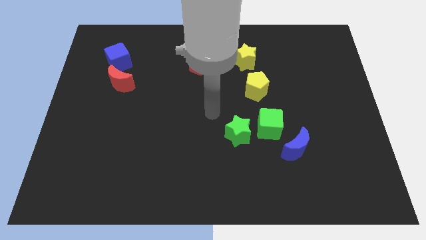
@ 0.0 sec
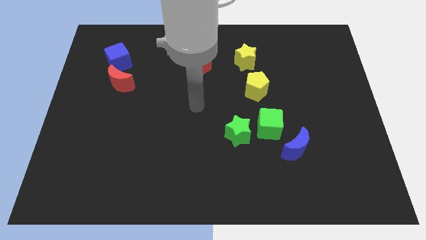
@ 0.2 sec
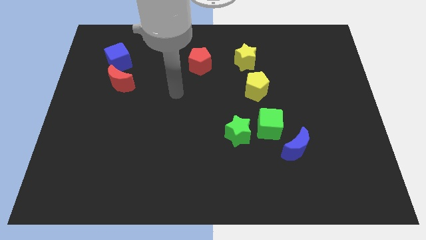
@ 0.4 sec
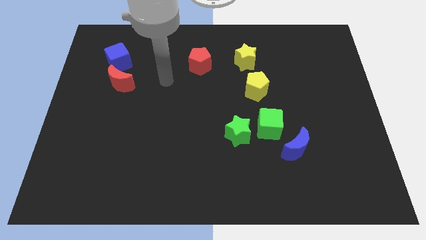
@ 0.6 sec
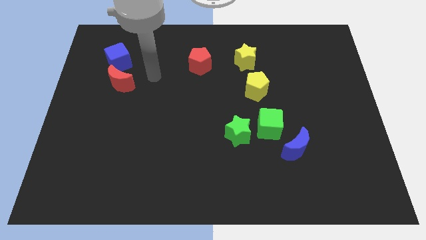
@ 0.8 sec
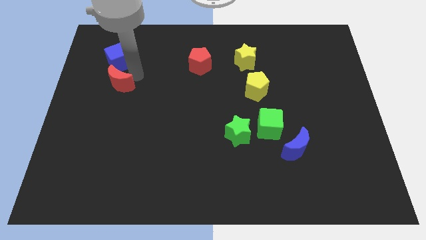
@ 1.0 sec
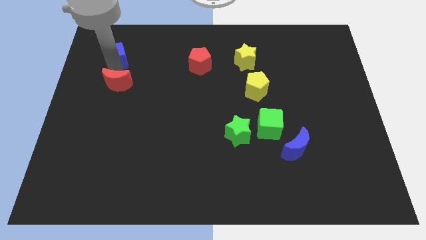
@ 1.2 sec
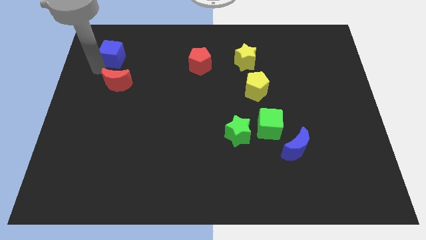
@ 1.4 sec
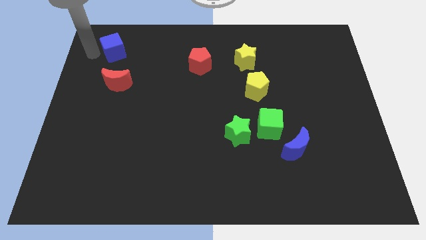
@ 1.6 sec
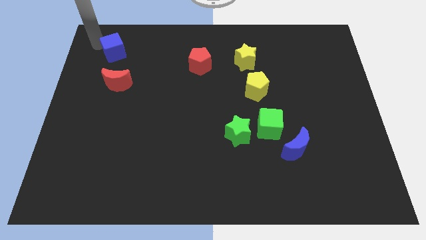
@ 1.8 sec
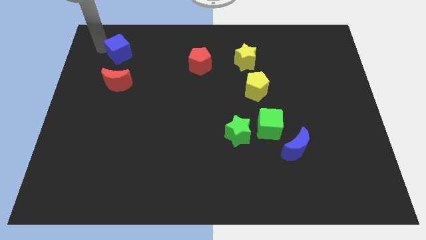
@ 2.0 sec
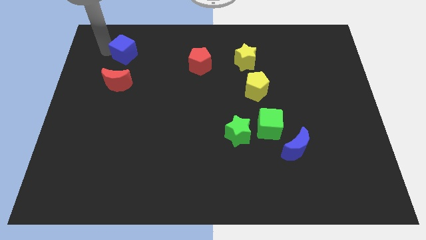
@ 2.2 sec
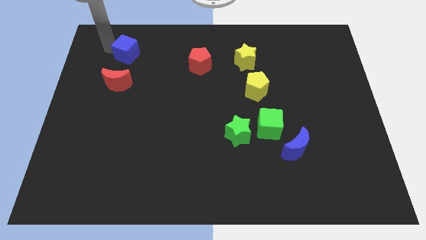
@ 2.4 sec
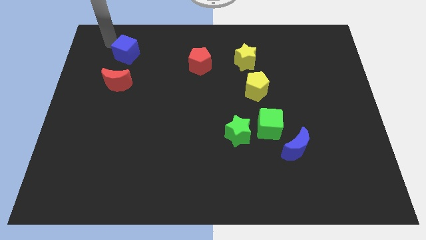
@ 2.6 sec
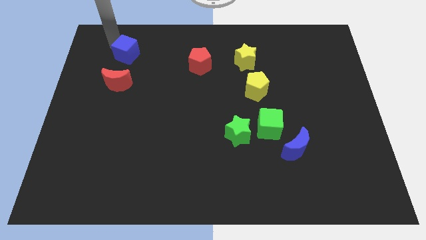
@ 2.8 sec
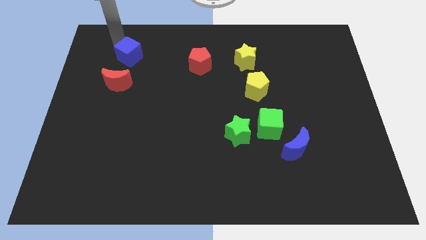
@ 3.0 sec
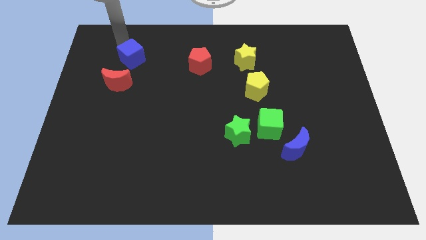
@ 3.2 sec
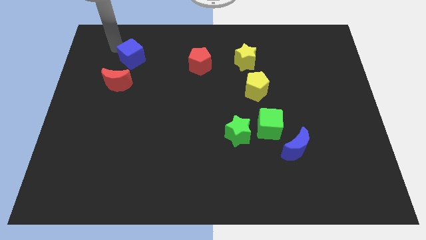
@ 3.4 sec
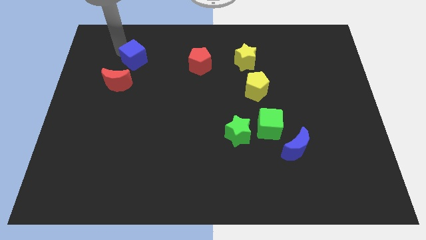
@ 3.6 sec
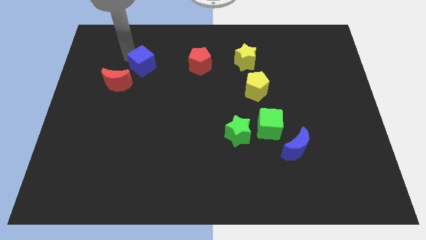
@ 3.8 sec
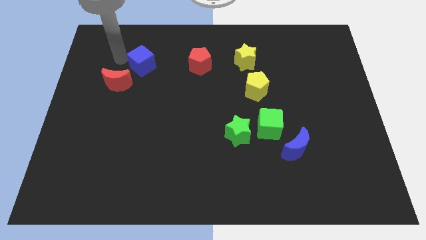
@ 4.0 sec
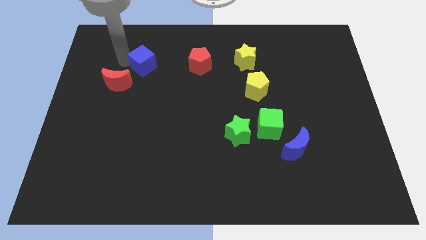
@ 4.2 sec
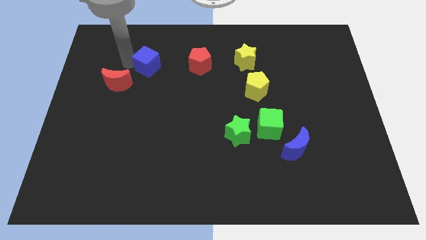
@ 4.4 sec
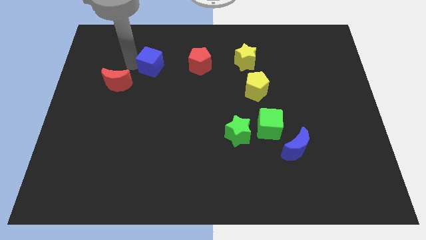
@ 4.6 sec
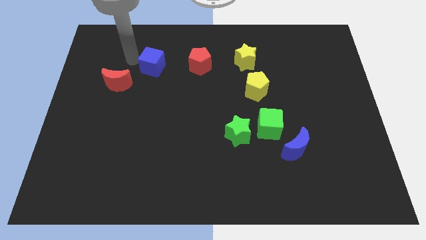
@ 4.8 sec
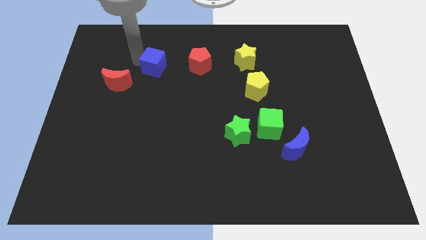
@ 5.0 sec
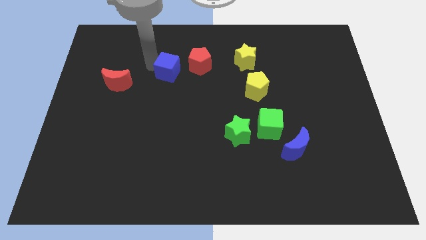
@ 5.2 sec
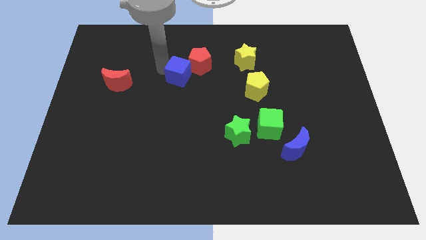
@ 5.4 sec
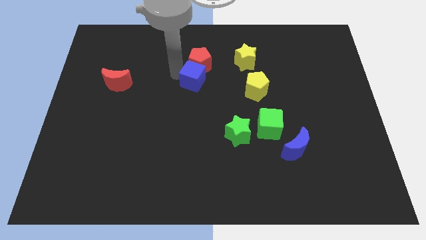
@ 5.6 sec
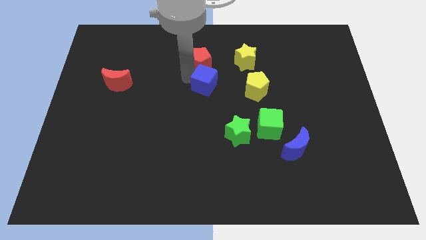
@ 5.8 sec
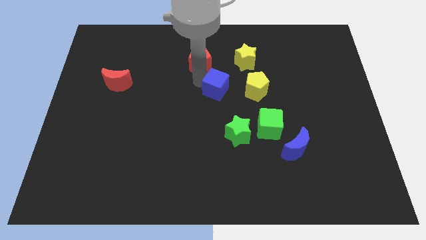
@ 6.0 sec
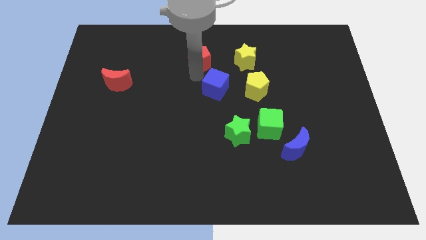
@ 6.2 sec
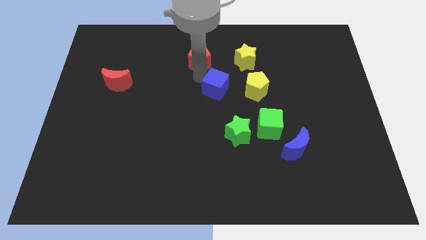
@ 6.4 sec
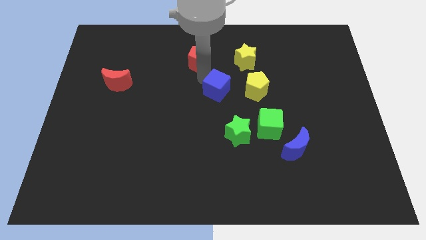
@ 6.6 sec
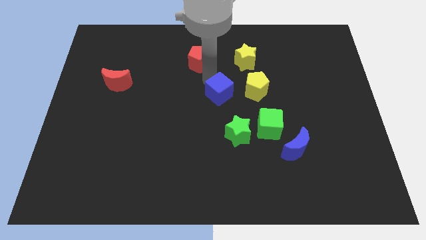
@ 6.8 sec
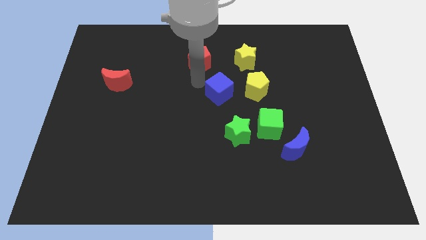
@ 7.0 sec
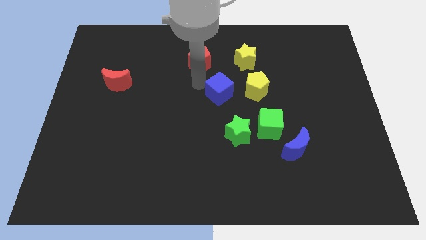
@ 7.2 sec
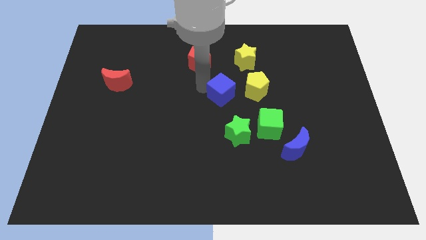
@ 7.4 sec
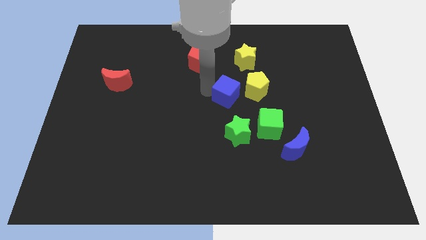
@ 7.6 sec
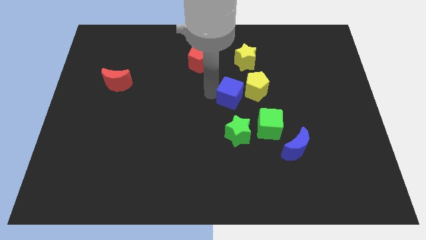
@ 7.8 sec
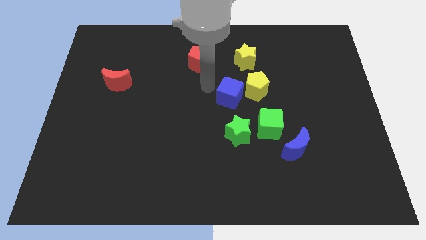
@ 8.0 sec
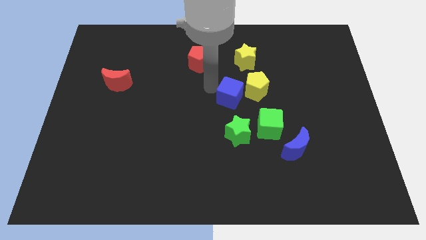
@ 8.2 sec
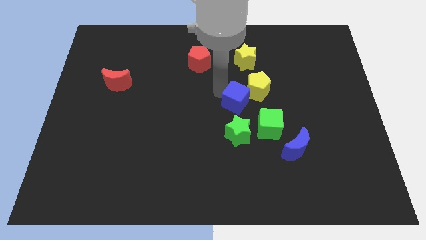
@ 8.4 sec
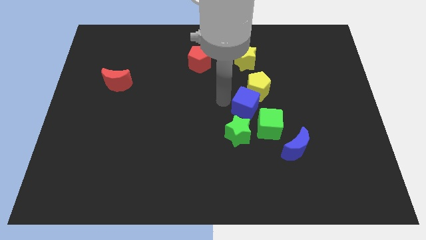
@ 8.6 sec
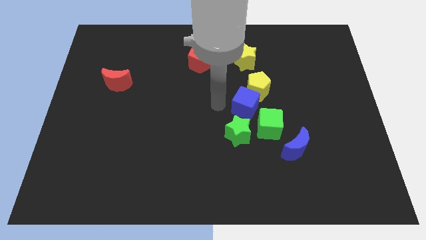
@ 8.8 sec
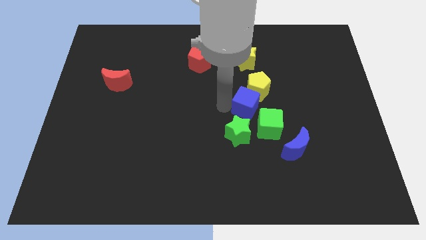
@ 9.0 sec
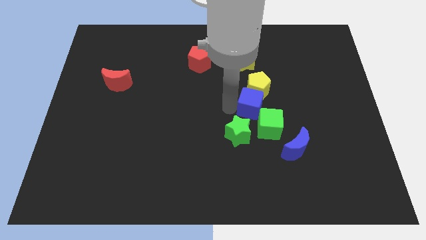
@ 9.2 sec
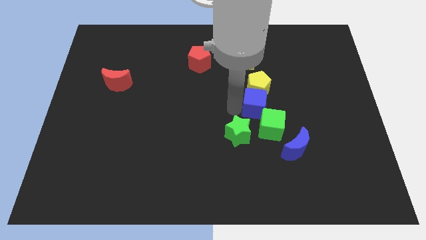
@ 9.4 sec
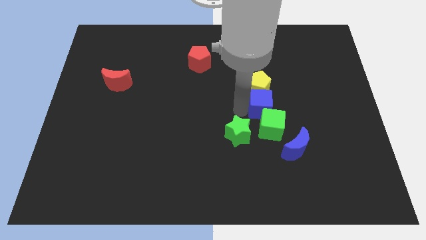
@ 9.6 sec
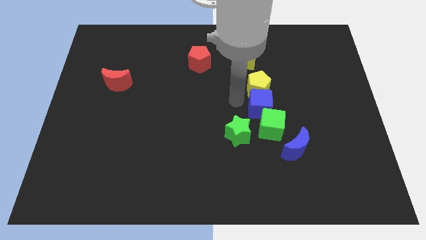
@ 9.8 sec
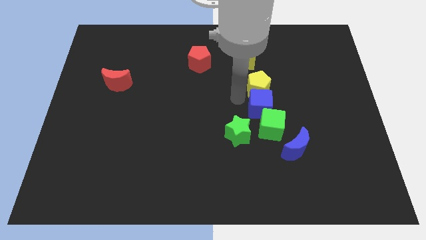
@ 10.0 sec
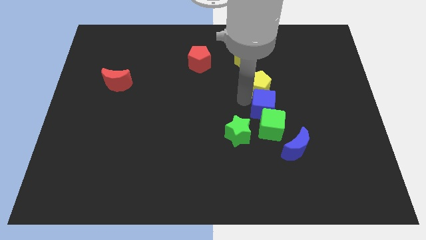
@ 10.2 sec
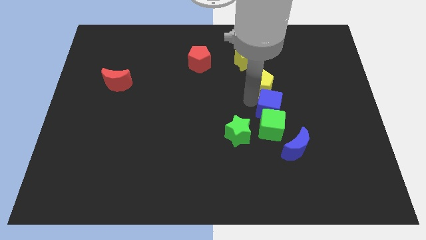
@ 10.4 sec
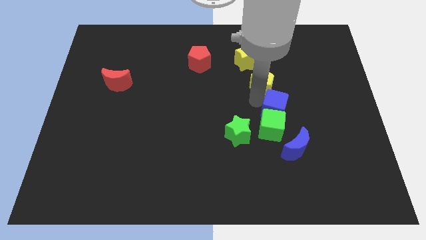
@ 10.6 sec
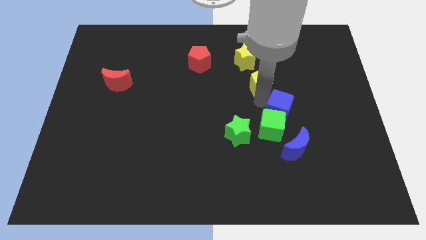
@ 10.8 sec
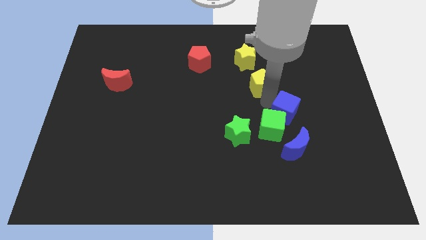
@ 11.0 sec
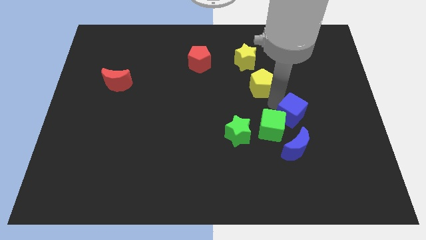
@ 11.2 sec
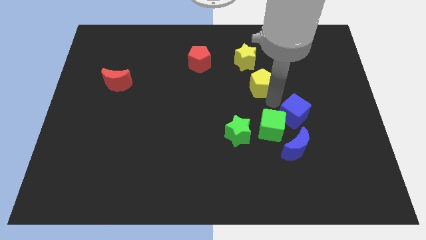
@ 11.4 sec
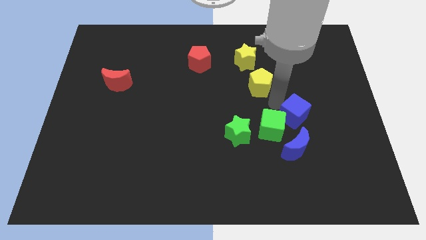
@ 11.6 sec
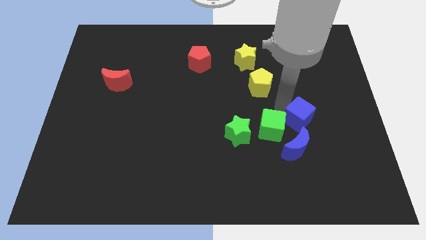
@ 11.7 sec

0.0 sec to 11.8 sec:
push the blue cube diagonally up and to the right of the blue moon
